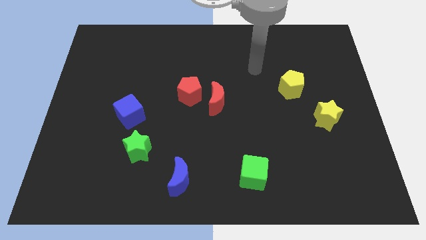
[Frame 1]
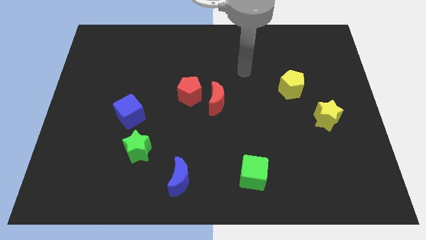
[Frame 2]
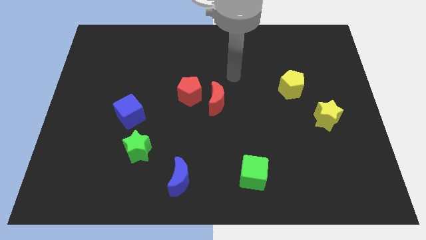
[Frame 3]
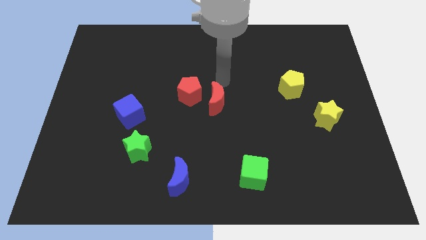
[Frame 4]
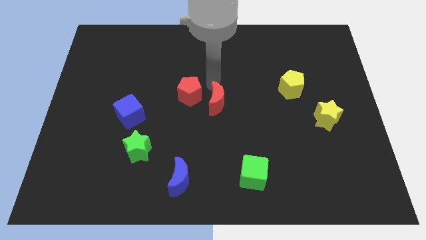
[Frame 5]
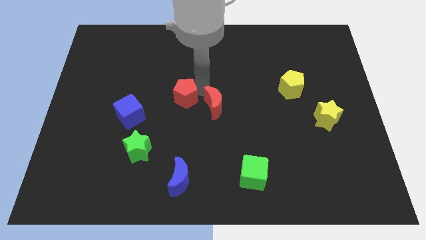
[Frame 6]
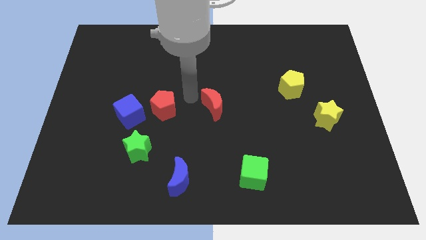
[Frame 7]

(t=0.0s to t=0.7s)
move the red moon away from the red pentagon

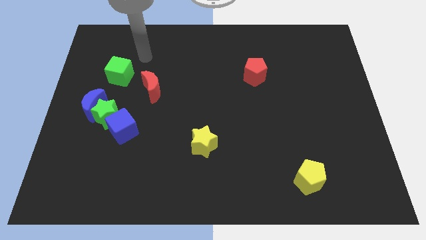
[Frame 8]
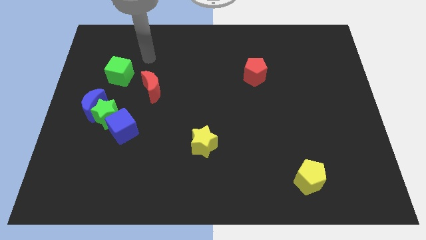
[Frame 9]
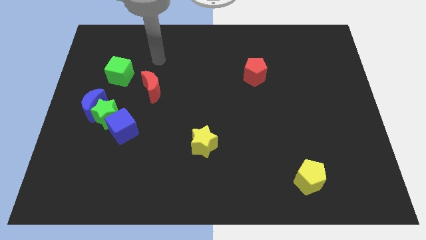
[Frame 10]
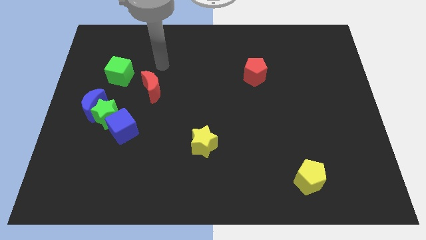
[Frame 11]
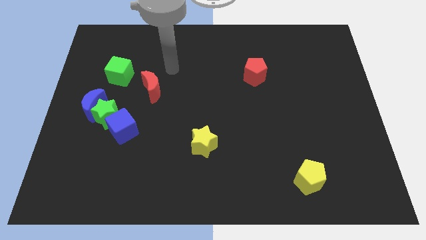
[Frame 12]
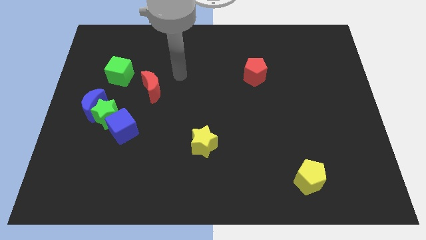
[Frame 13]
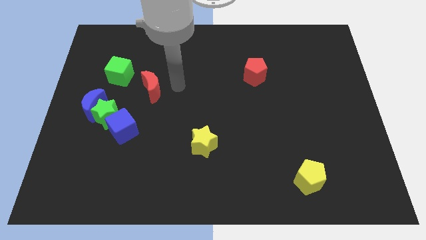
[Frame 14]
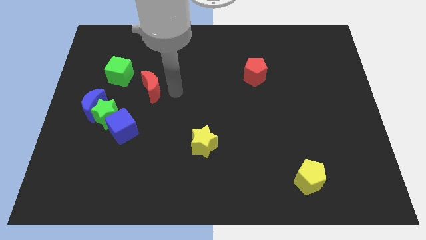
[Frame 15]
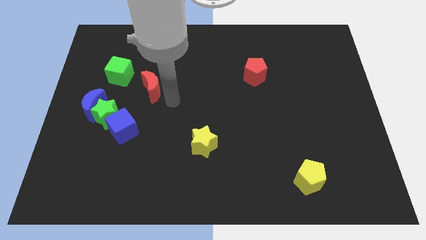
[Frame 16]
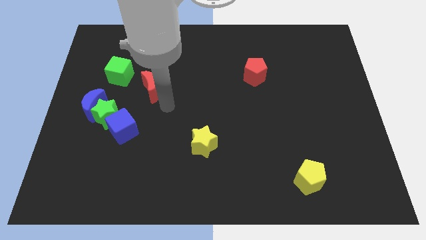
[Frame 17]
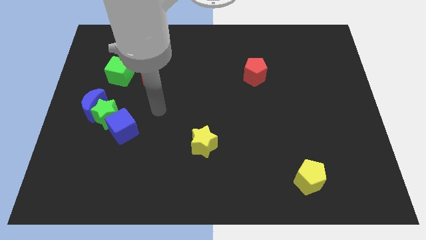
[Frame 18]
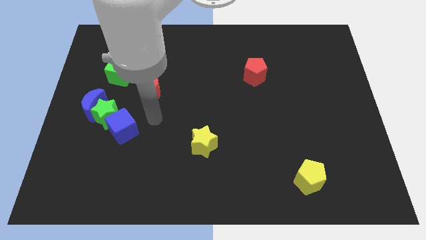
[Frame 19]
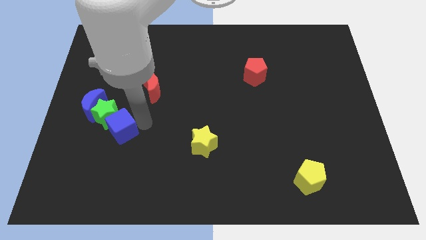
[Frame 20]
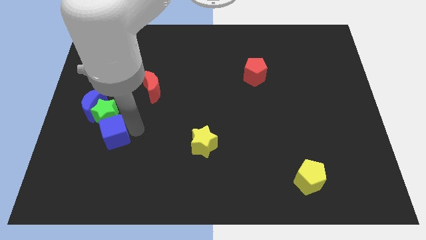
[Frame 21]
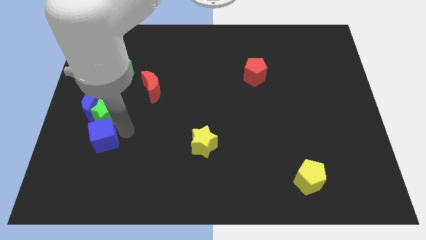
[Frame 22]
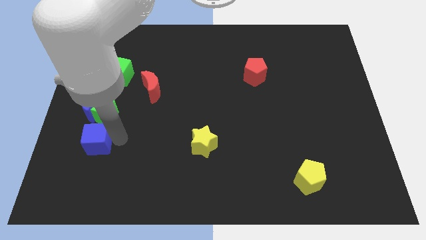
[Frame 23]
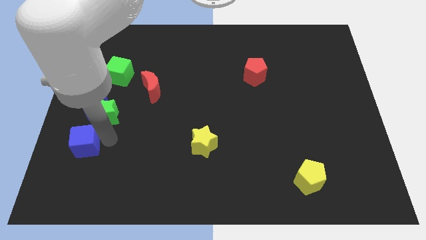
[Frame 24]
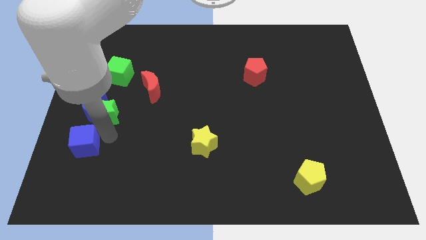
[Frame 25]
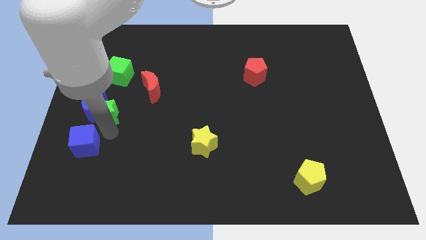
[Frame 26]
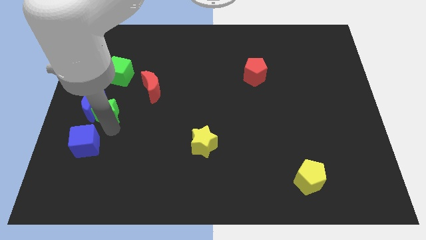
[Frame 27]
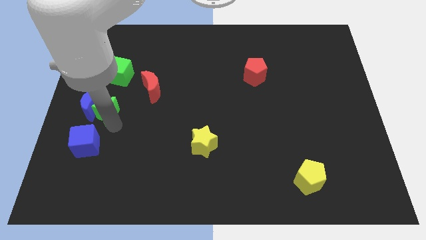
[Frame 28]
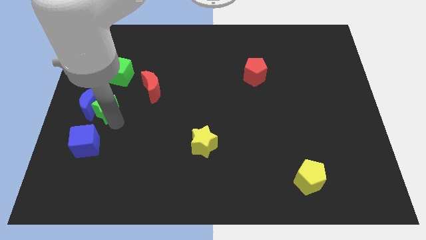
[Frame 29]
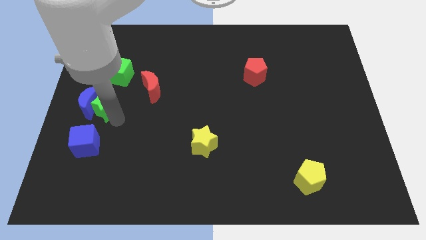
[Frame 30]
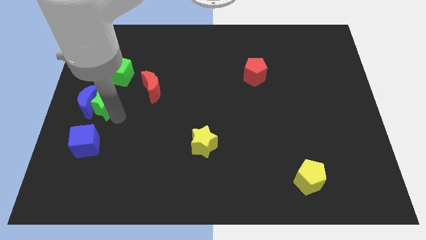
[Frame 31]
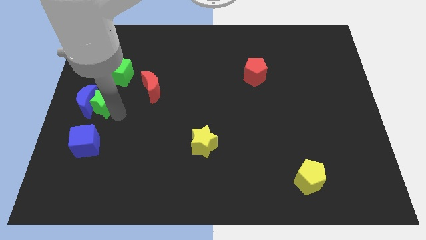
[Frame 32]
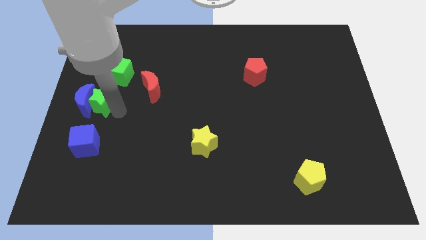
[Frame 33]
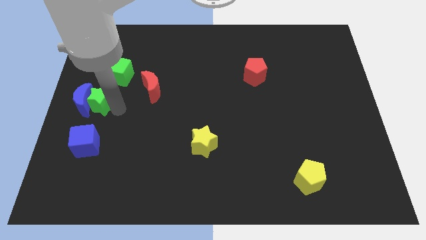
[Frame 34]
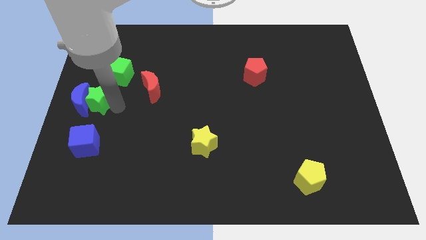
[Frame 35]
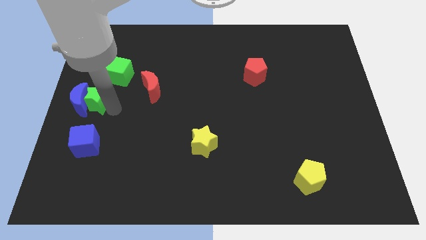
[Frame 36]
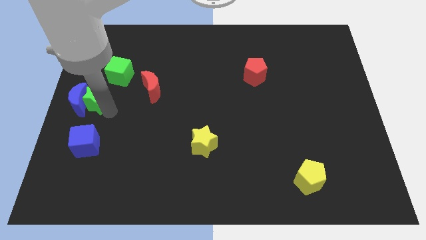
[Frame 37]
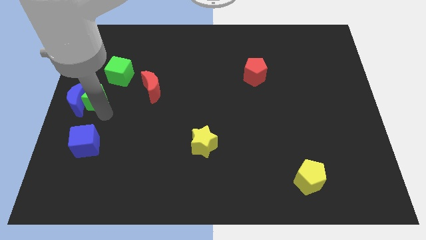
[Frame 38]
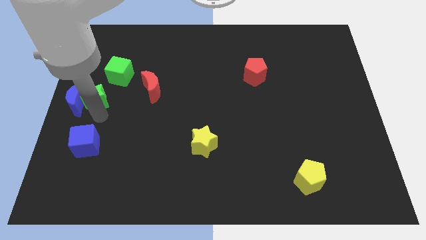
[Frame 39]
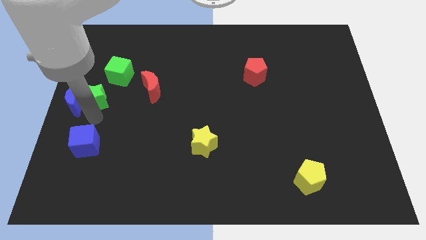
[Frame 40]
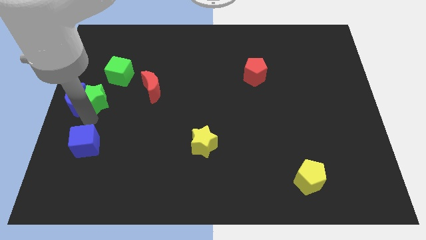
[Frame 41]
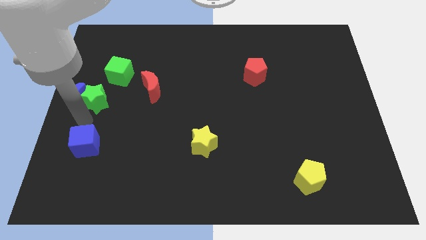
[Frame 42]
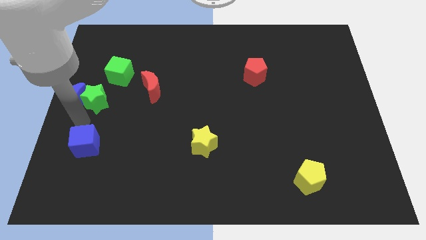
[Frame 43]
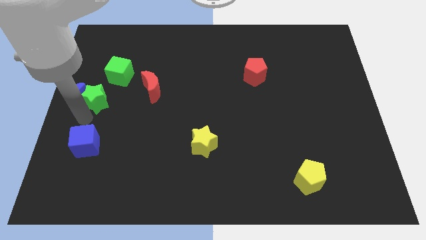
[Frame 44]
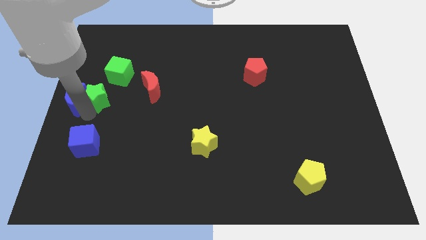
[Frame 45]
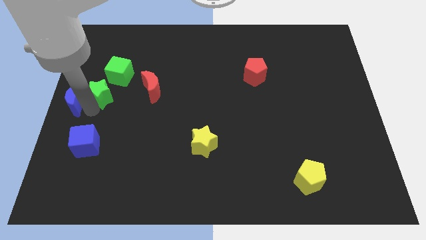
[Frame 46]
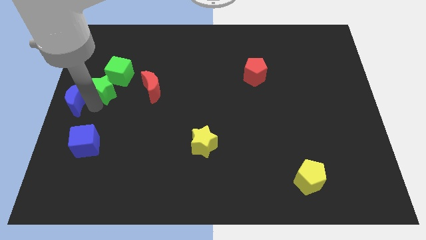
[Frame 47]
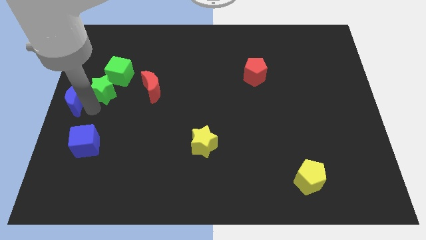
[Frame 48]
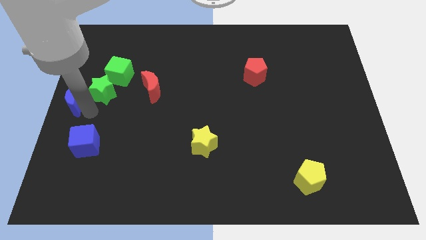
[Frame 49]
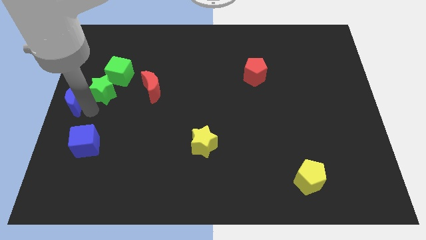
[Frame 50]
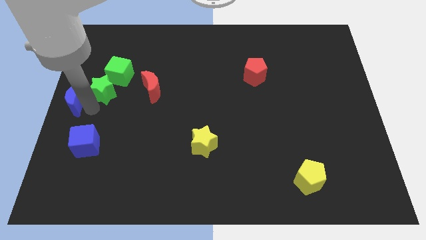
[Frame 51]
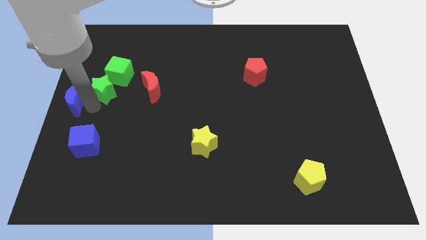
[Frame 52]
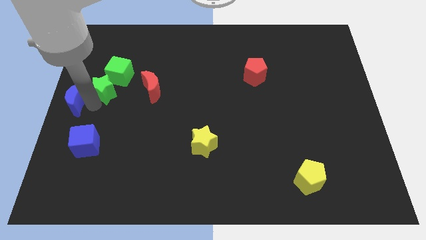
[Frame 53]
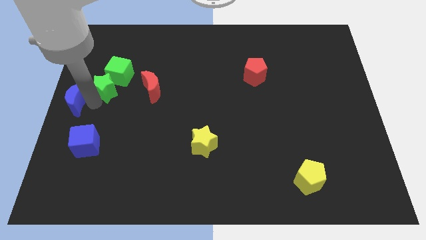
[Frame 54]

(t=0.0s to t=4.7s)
pull the green star apart from the blue moon and blue cube

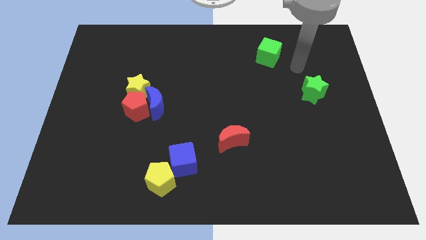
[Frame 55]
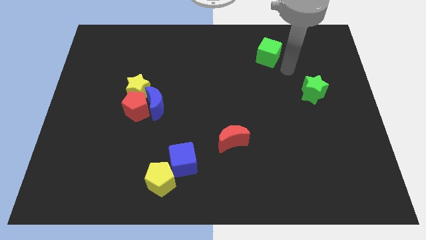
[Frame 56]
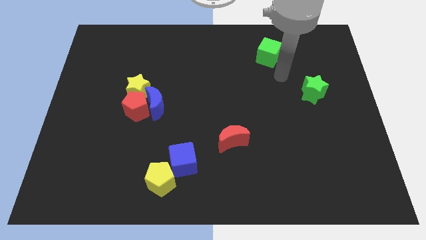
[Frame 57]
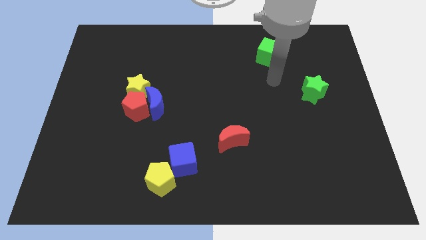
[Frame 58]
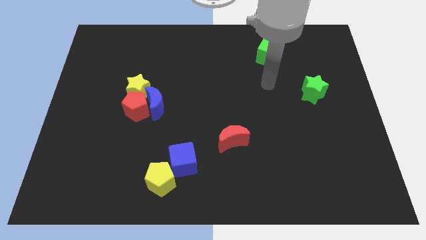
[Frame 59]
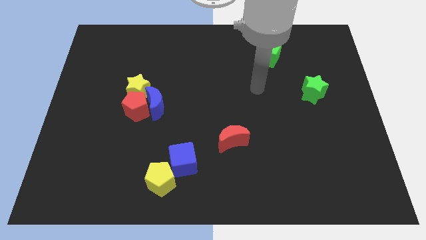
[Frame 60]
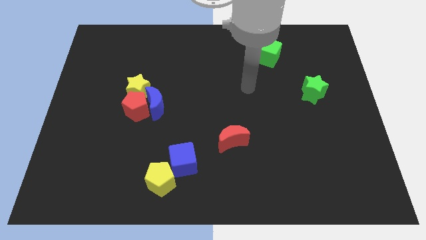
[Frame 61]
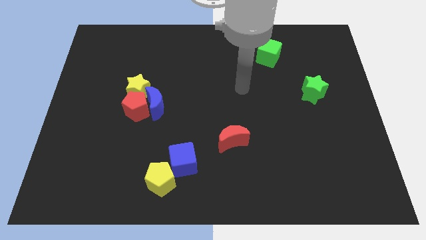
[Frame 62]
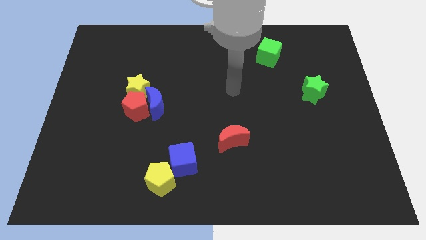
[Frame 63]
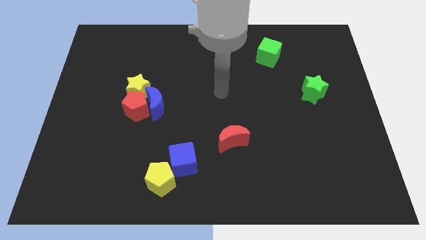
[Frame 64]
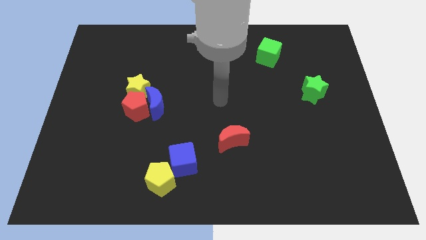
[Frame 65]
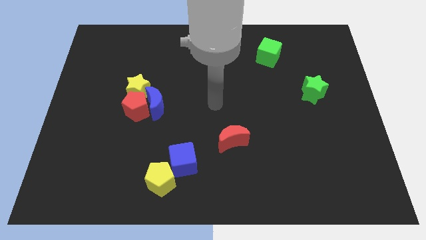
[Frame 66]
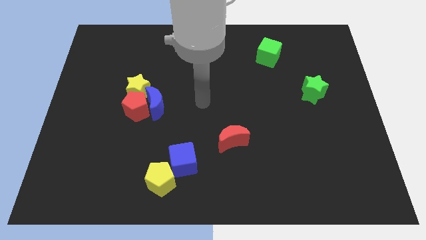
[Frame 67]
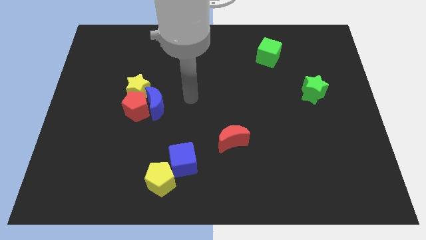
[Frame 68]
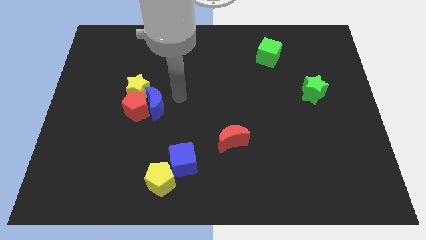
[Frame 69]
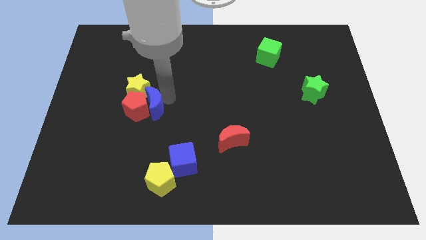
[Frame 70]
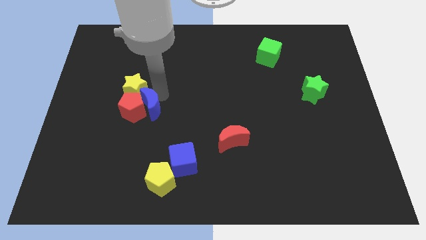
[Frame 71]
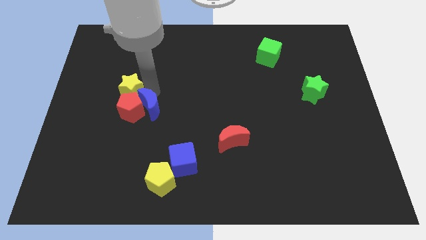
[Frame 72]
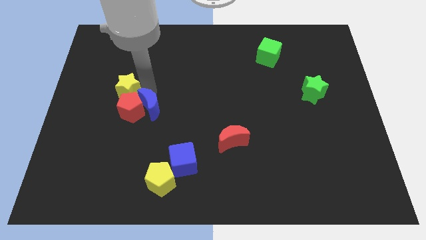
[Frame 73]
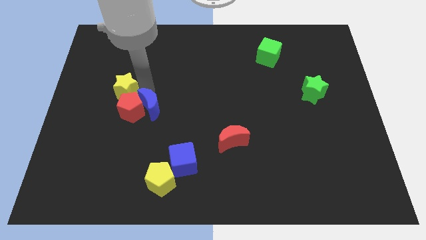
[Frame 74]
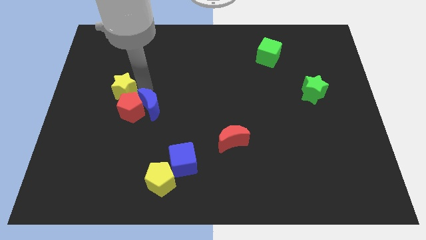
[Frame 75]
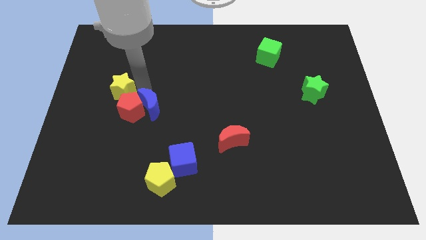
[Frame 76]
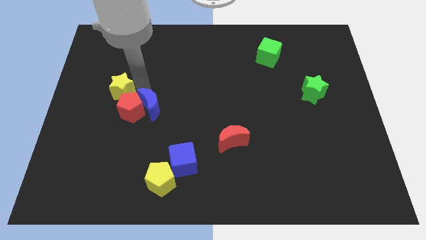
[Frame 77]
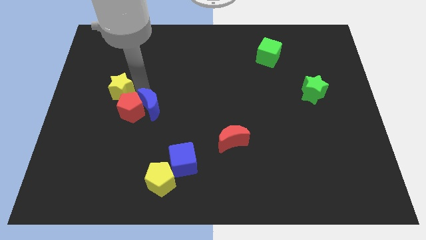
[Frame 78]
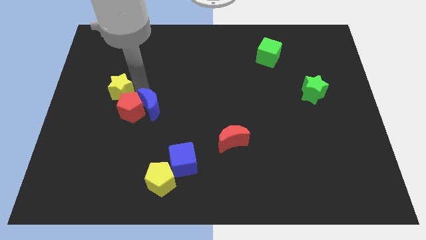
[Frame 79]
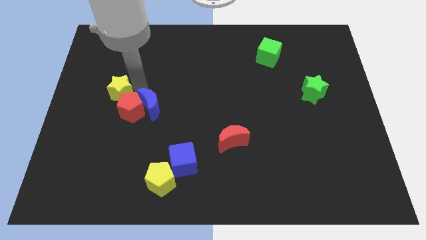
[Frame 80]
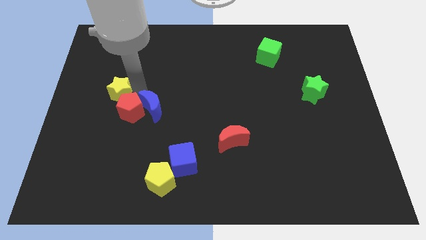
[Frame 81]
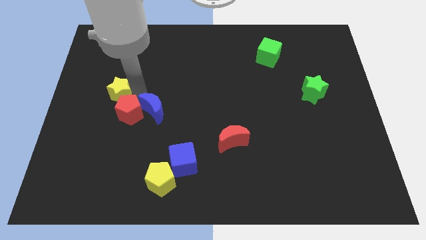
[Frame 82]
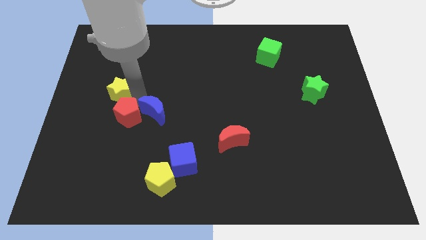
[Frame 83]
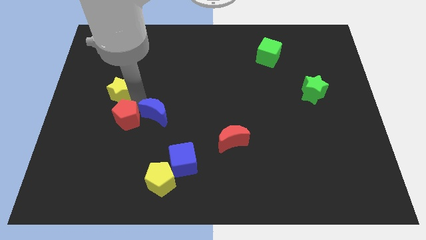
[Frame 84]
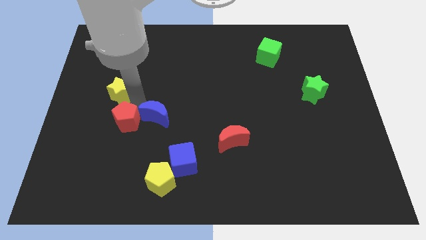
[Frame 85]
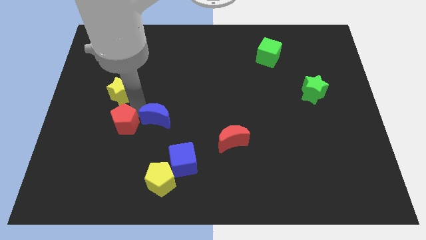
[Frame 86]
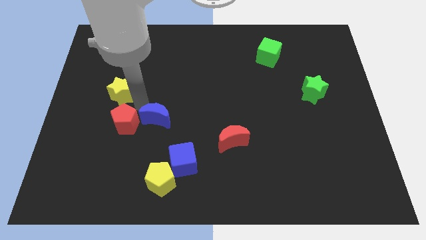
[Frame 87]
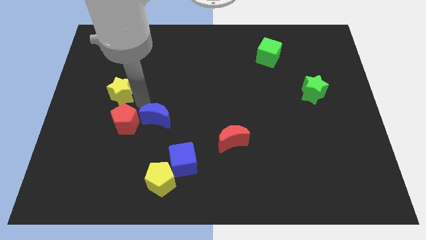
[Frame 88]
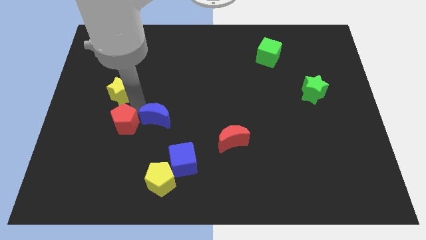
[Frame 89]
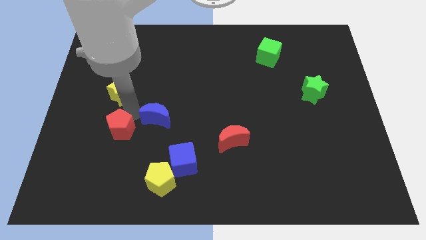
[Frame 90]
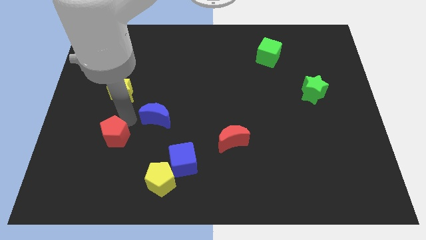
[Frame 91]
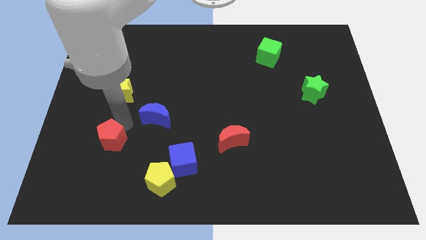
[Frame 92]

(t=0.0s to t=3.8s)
pull the red pentagon apart from the blue moon and yellow star

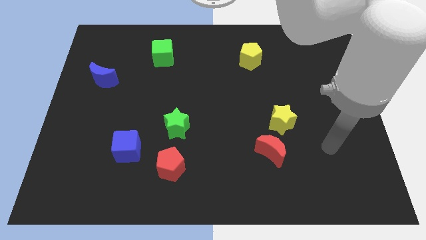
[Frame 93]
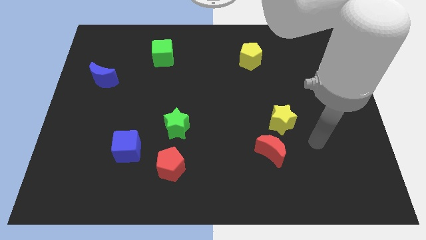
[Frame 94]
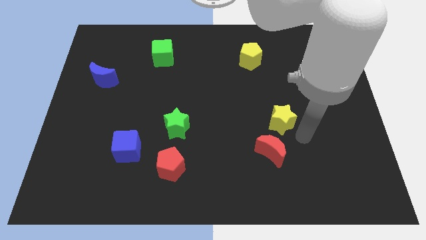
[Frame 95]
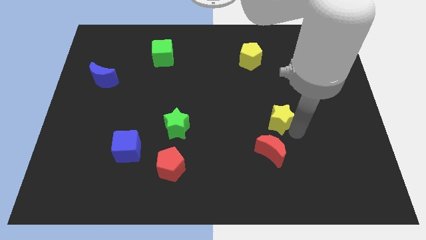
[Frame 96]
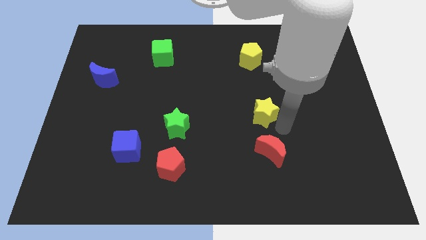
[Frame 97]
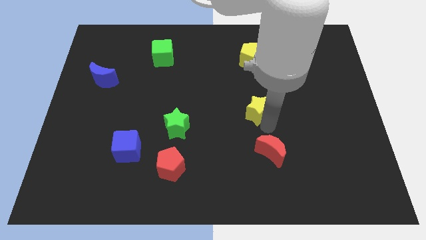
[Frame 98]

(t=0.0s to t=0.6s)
move the red moon away from the yellow star
